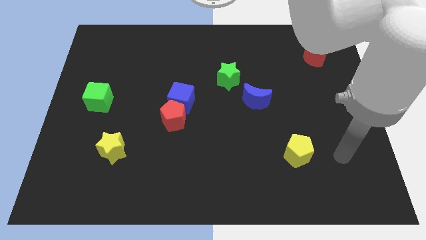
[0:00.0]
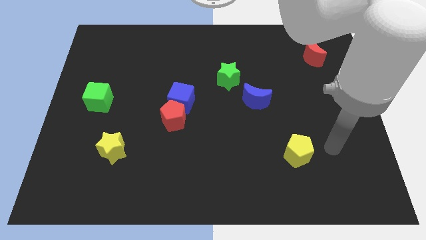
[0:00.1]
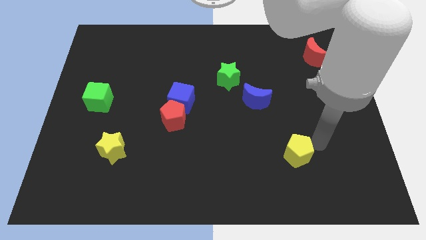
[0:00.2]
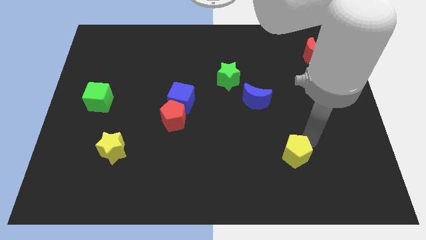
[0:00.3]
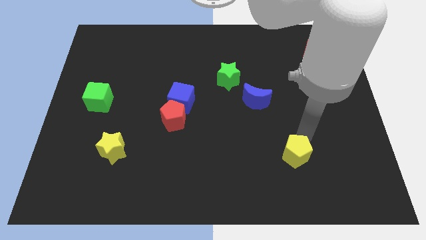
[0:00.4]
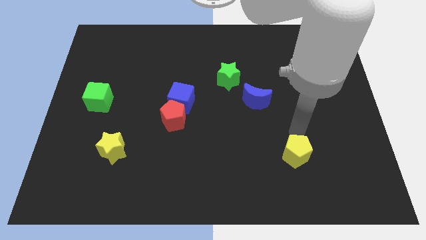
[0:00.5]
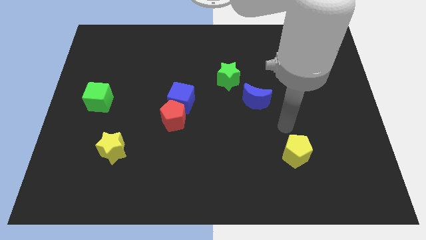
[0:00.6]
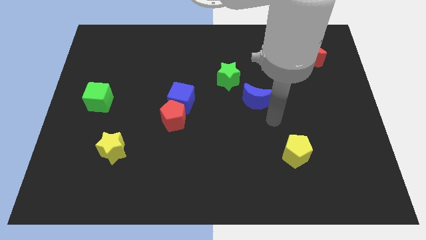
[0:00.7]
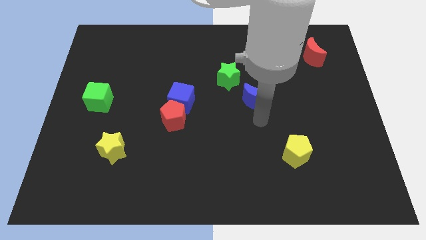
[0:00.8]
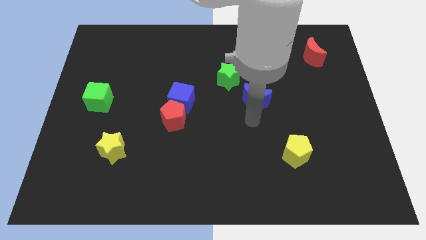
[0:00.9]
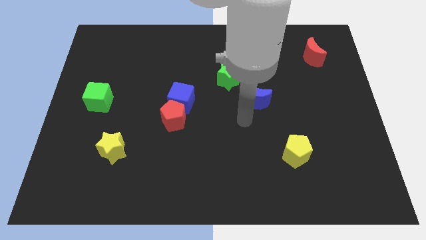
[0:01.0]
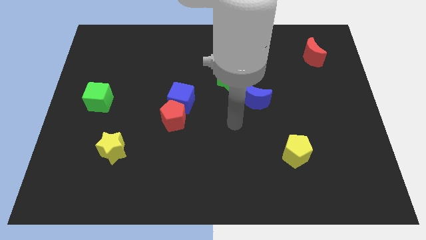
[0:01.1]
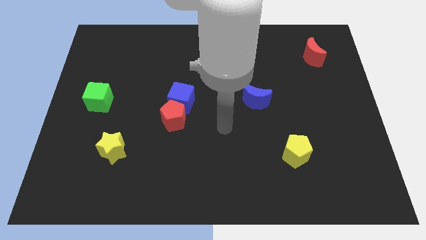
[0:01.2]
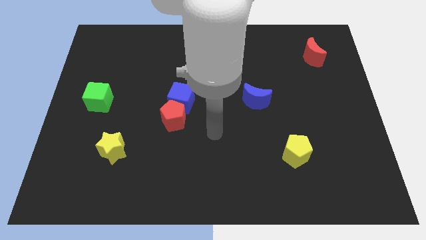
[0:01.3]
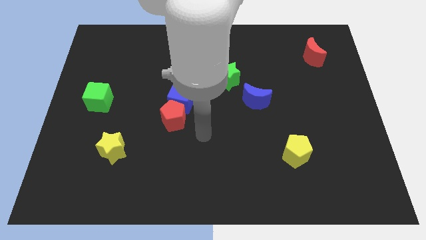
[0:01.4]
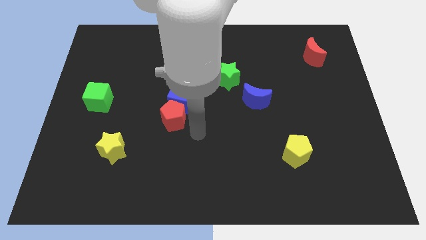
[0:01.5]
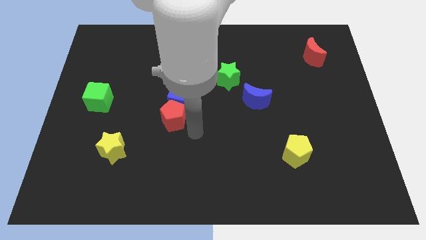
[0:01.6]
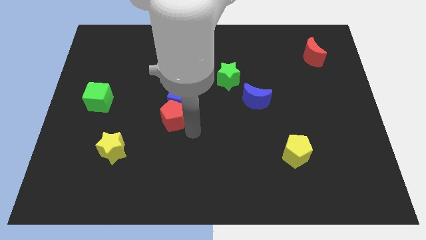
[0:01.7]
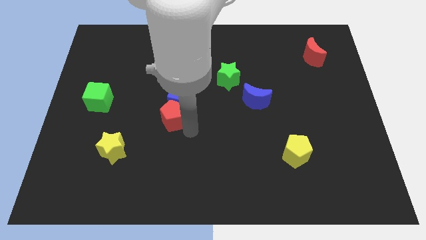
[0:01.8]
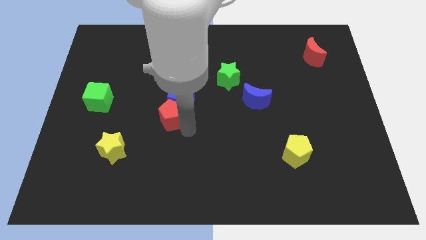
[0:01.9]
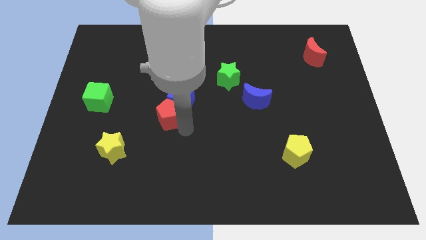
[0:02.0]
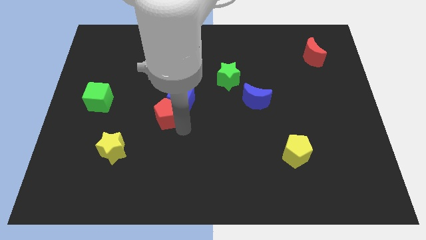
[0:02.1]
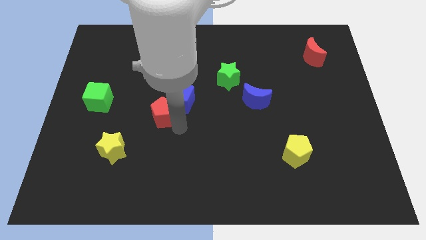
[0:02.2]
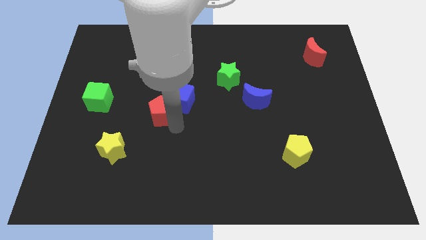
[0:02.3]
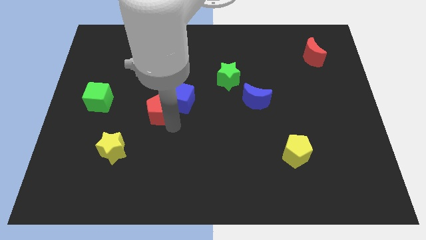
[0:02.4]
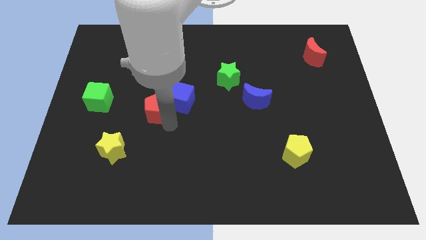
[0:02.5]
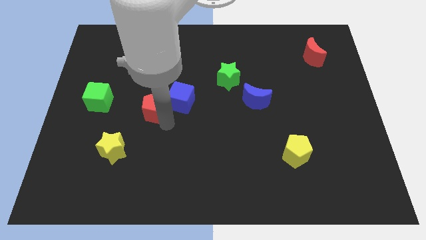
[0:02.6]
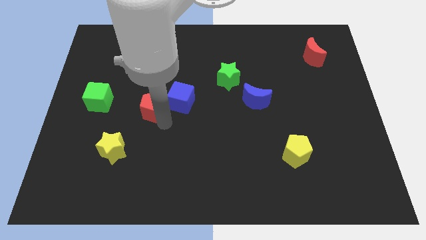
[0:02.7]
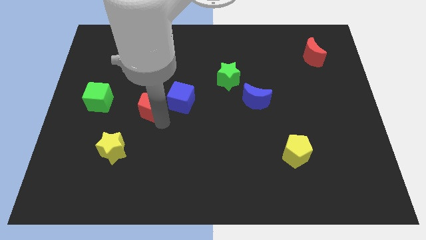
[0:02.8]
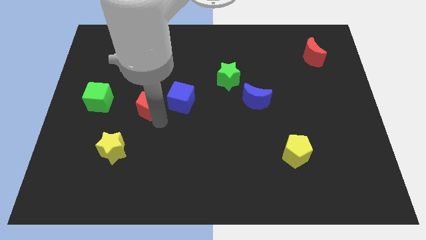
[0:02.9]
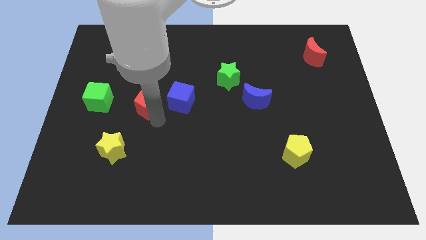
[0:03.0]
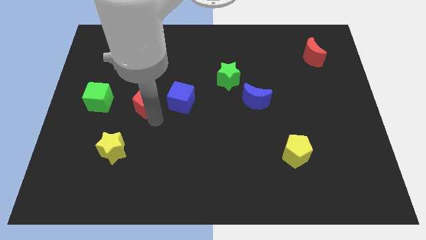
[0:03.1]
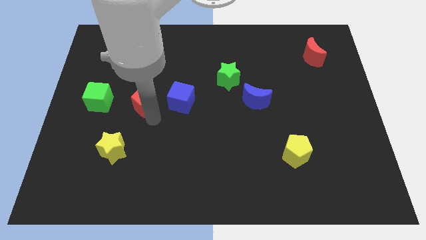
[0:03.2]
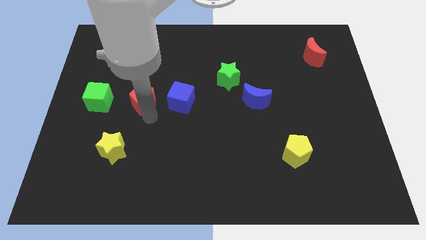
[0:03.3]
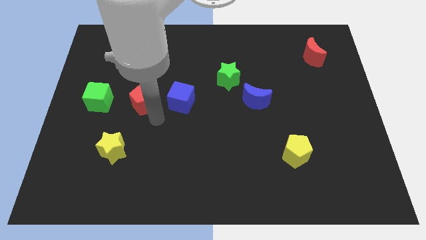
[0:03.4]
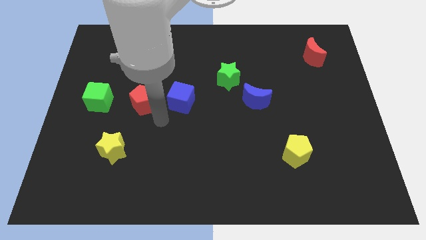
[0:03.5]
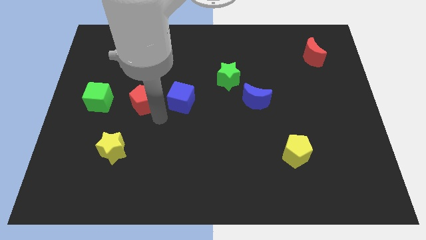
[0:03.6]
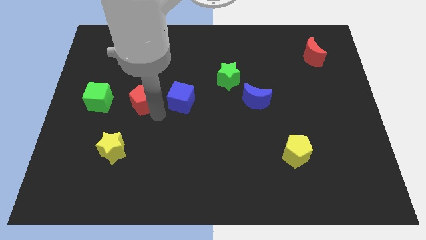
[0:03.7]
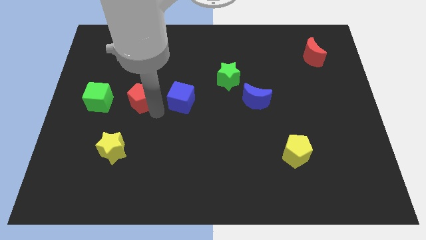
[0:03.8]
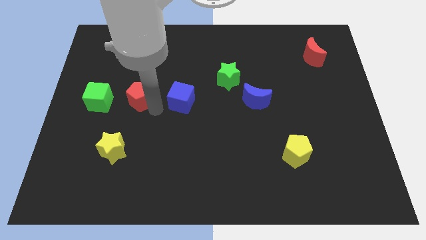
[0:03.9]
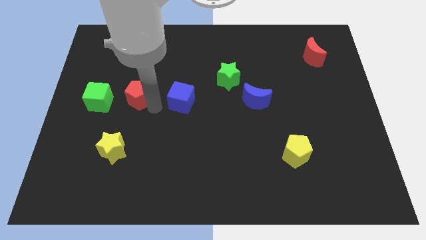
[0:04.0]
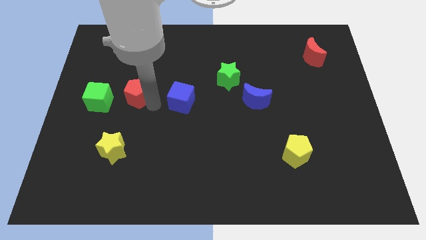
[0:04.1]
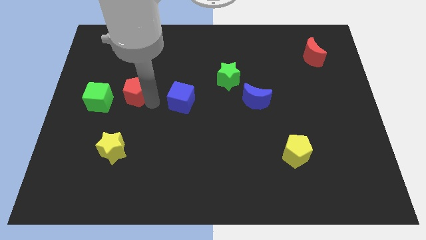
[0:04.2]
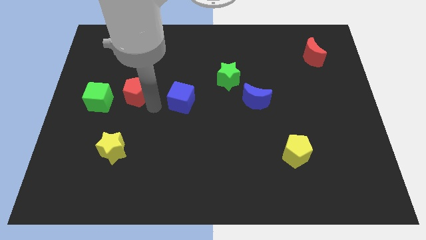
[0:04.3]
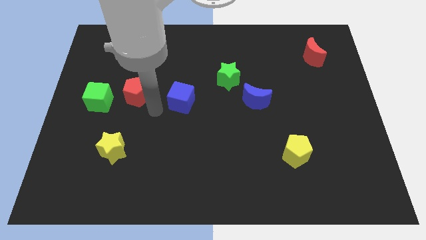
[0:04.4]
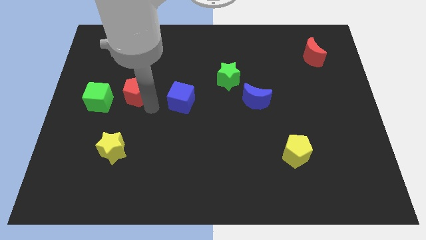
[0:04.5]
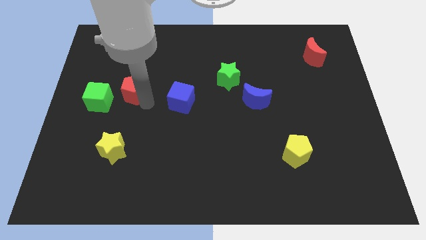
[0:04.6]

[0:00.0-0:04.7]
move the red pentagon to the top right side of the green cube

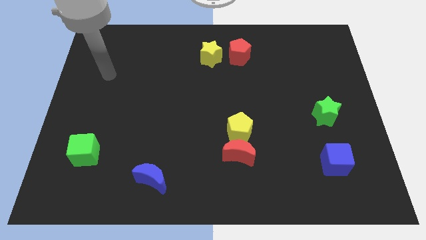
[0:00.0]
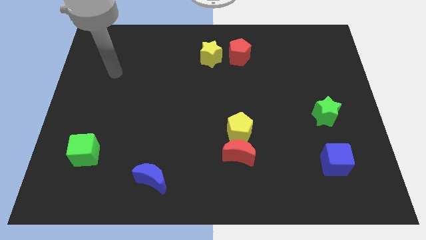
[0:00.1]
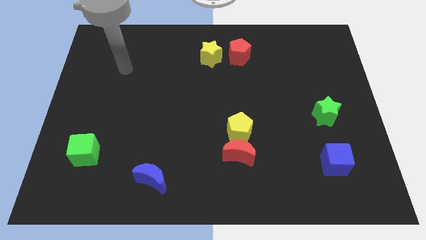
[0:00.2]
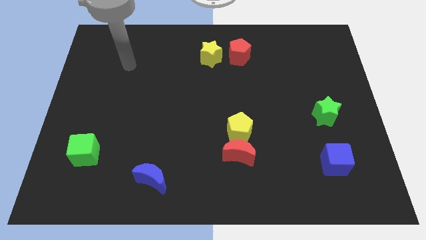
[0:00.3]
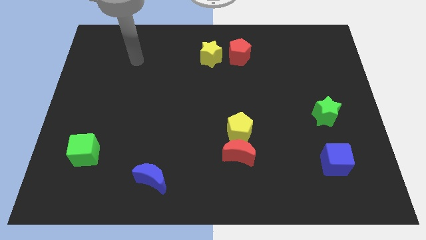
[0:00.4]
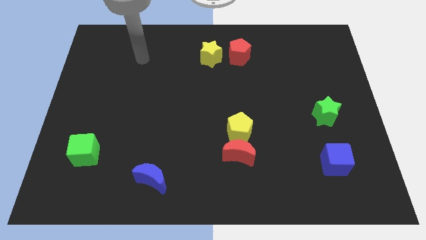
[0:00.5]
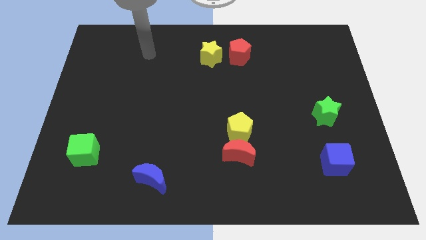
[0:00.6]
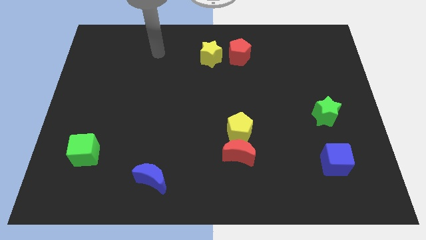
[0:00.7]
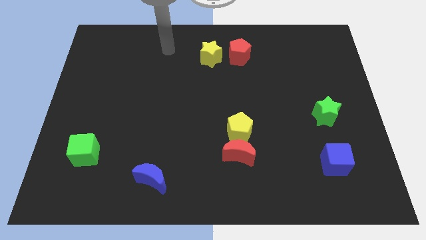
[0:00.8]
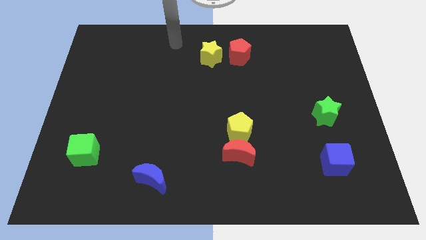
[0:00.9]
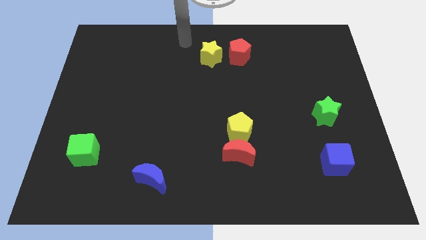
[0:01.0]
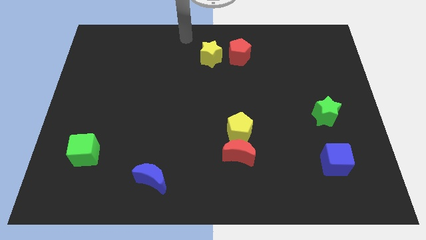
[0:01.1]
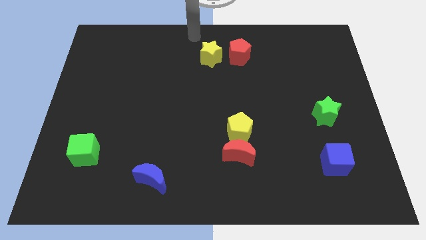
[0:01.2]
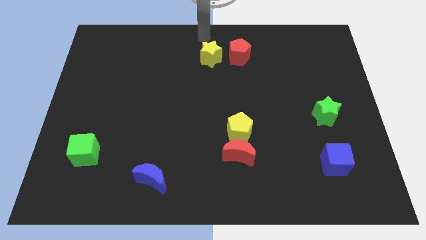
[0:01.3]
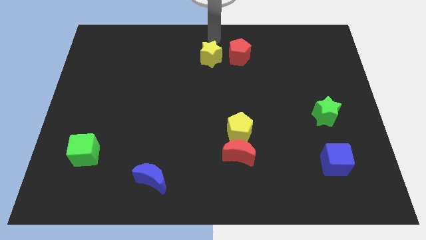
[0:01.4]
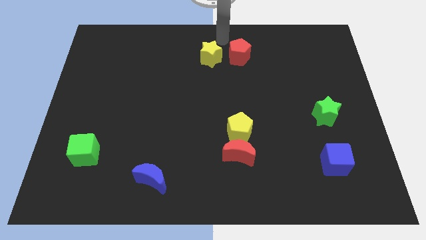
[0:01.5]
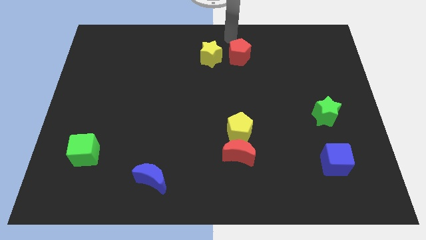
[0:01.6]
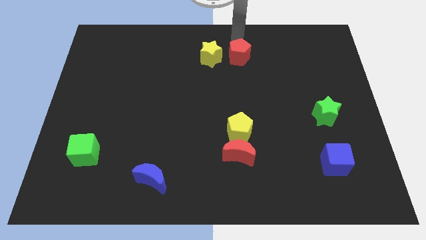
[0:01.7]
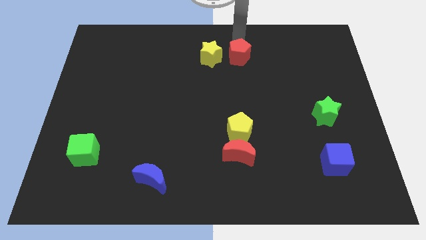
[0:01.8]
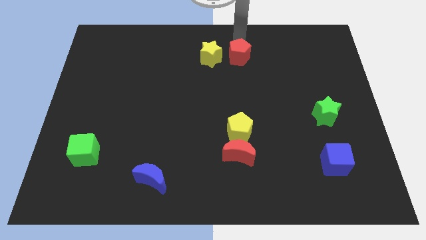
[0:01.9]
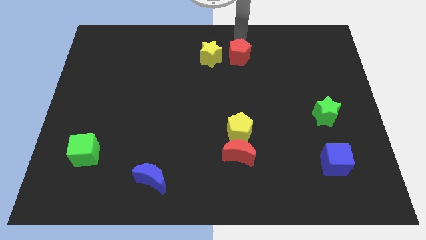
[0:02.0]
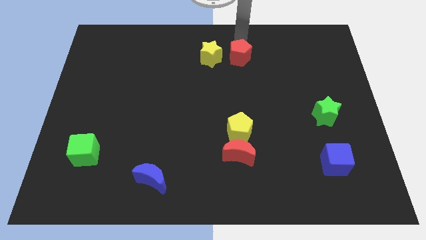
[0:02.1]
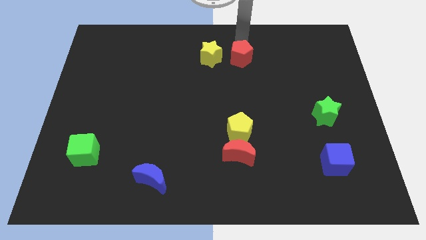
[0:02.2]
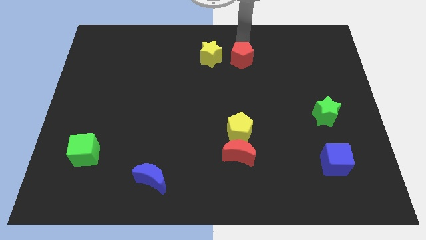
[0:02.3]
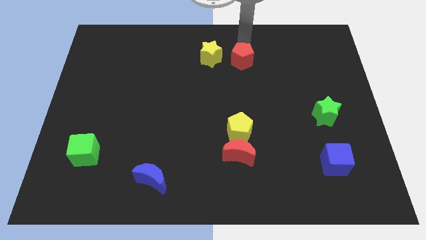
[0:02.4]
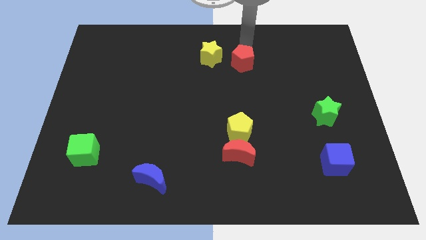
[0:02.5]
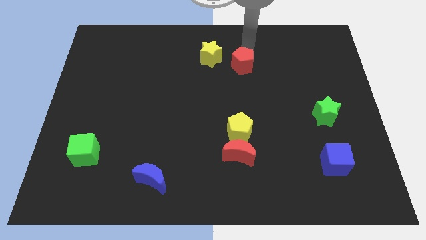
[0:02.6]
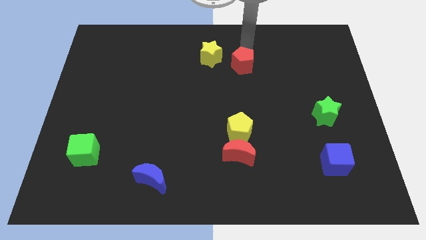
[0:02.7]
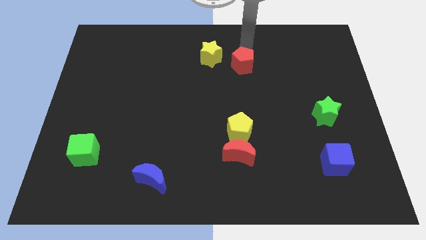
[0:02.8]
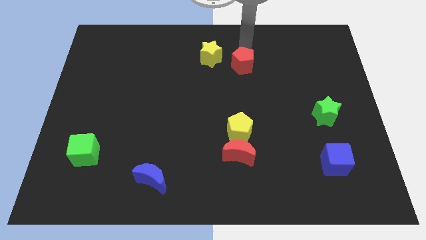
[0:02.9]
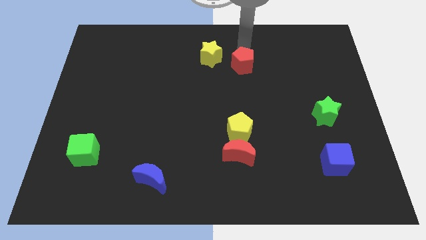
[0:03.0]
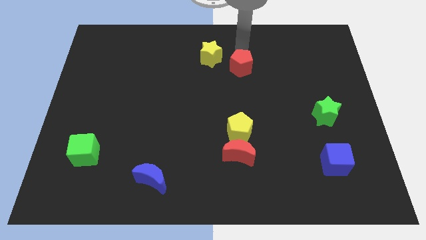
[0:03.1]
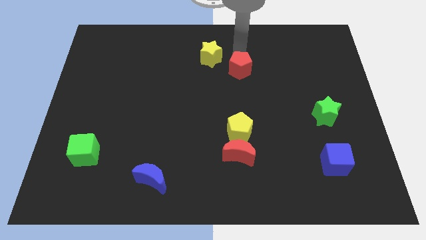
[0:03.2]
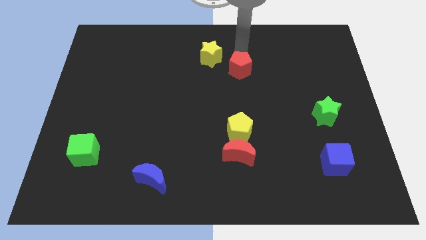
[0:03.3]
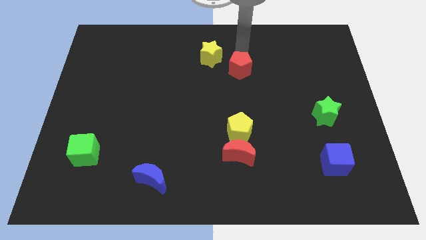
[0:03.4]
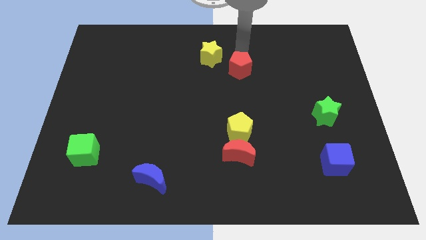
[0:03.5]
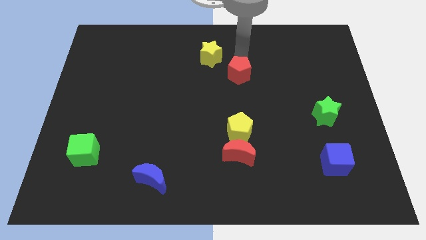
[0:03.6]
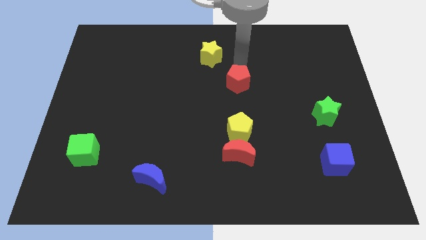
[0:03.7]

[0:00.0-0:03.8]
put the red pentagon above the yellow pentagon
